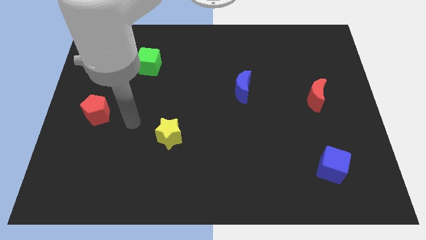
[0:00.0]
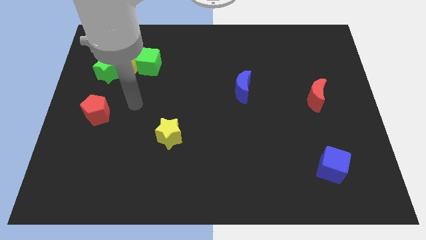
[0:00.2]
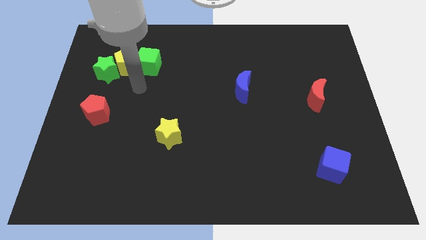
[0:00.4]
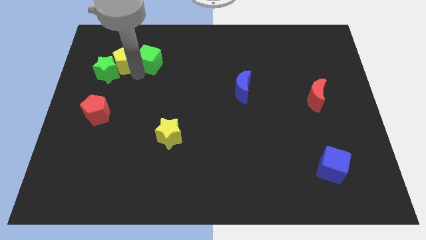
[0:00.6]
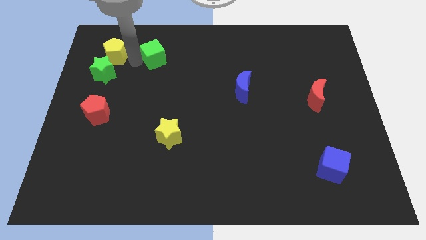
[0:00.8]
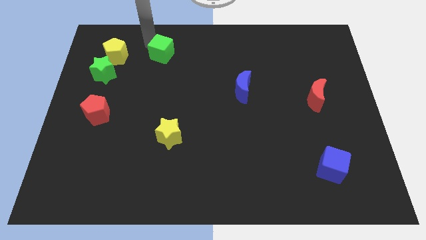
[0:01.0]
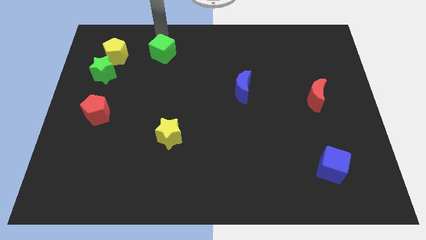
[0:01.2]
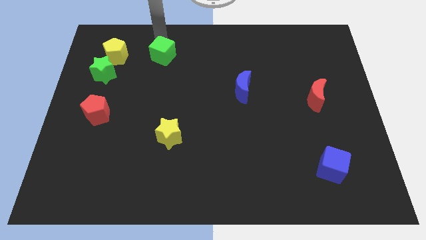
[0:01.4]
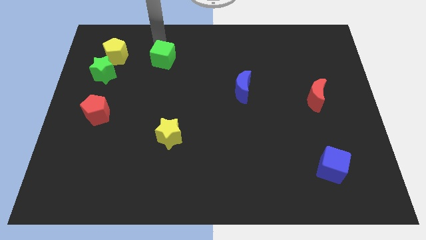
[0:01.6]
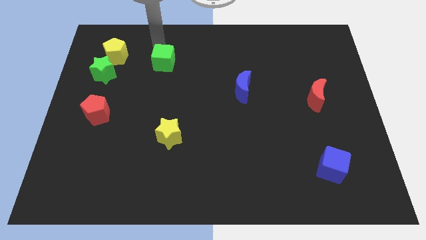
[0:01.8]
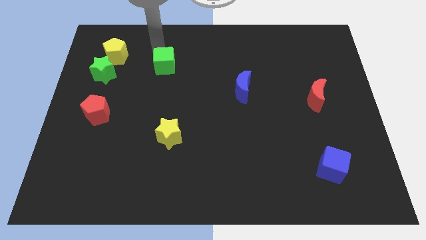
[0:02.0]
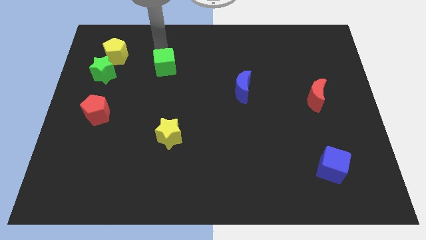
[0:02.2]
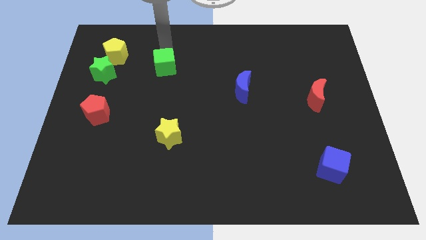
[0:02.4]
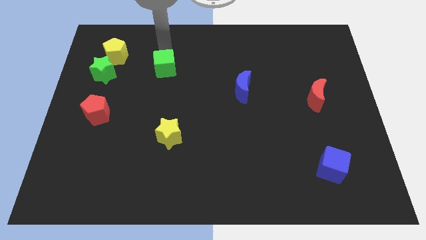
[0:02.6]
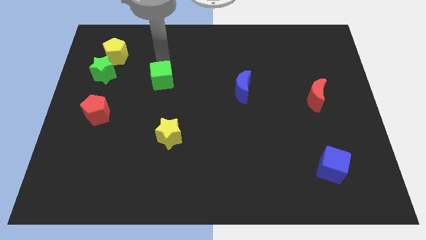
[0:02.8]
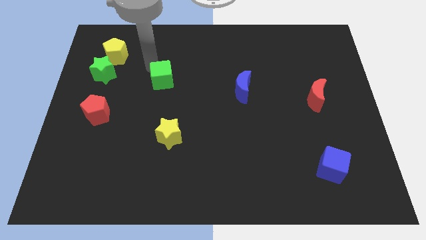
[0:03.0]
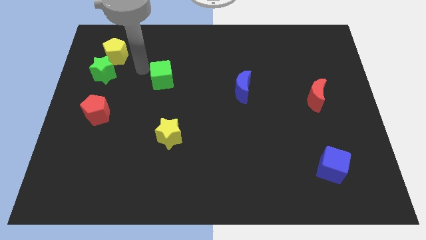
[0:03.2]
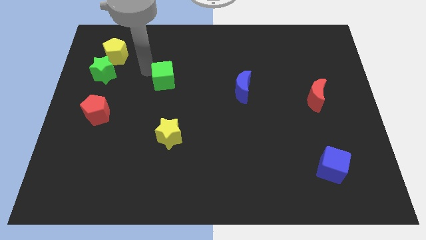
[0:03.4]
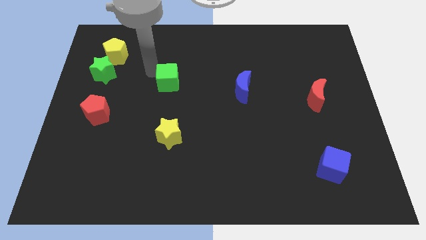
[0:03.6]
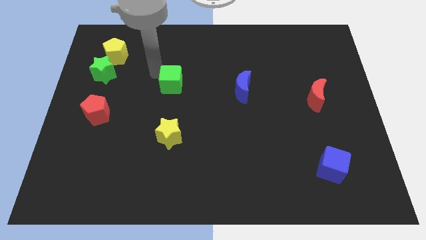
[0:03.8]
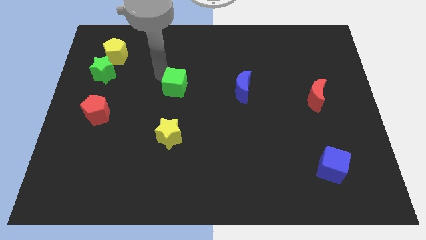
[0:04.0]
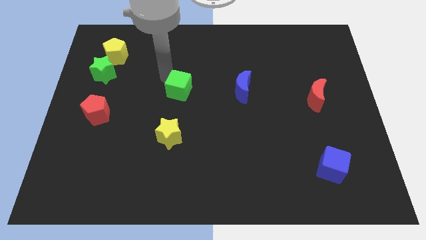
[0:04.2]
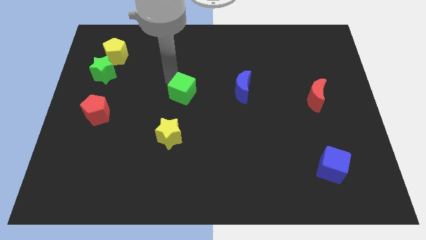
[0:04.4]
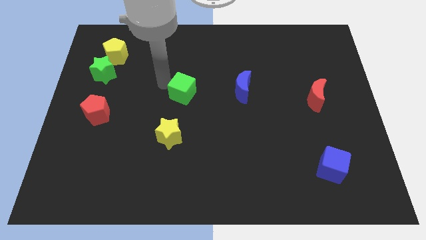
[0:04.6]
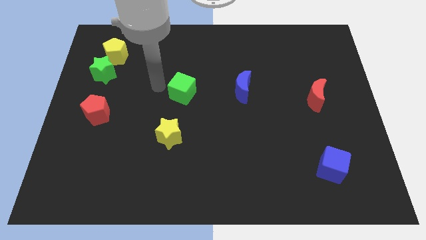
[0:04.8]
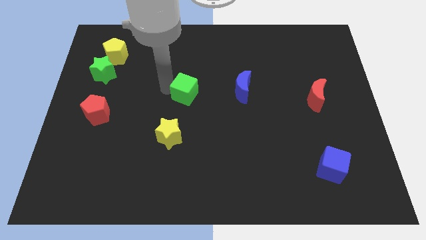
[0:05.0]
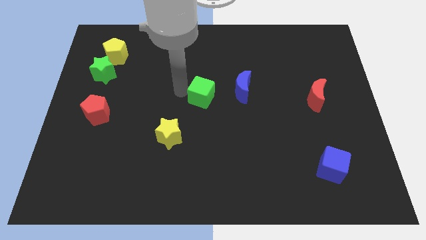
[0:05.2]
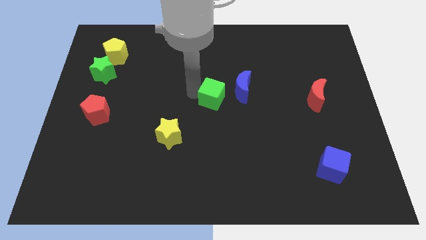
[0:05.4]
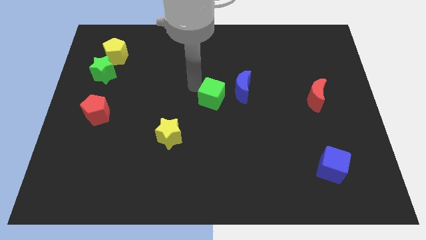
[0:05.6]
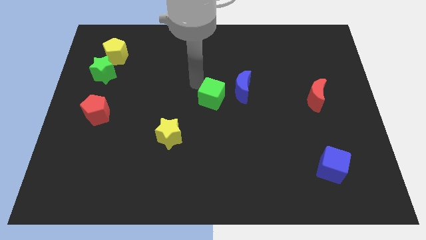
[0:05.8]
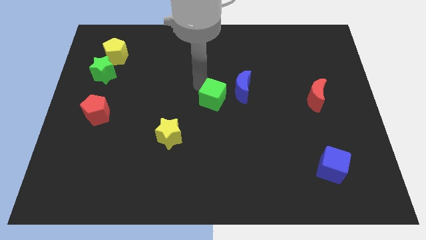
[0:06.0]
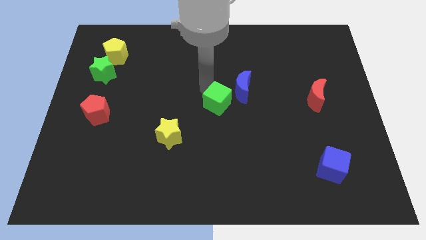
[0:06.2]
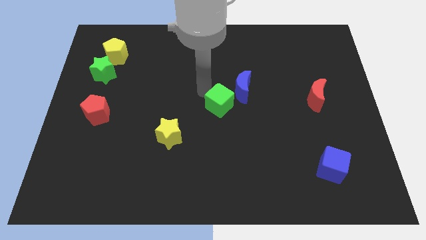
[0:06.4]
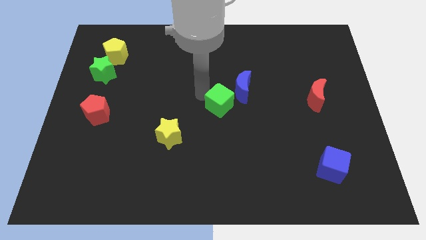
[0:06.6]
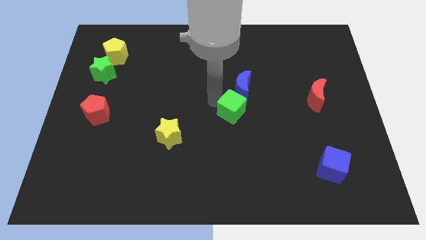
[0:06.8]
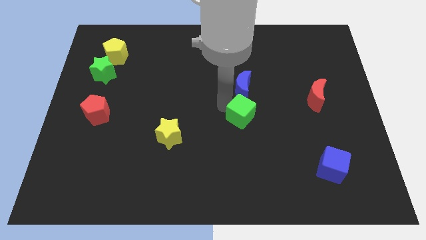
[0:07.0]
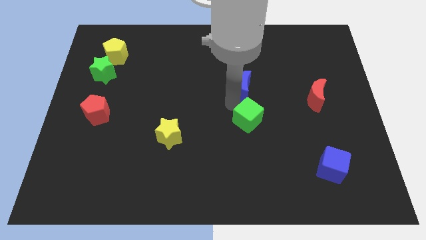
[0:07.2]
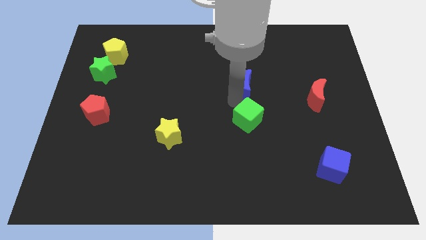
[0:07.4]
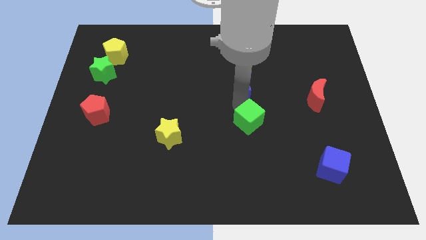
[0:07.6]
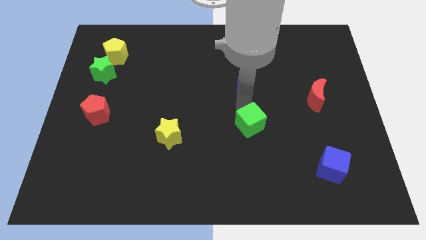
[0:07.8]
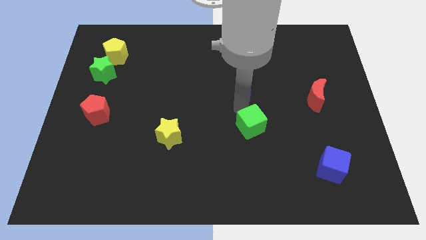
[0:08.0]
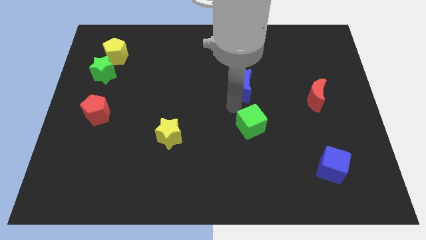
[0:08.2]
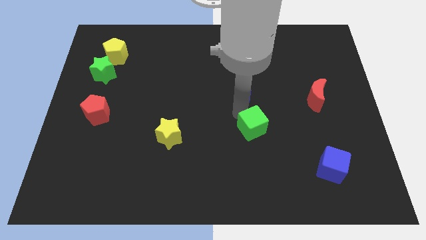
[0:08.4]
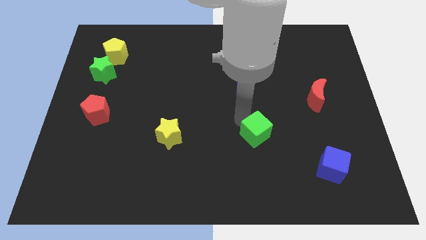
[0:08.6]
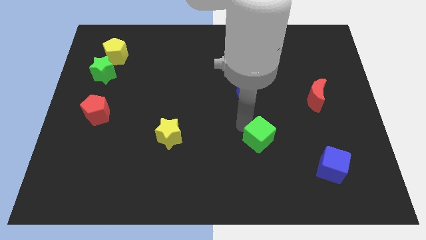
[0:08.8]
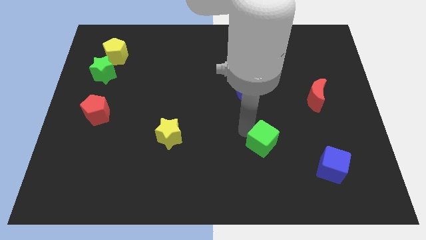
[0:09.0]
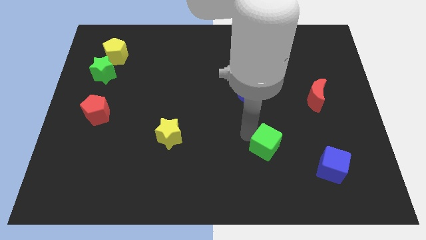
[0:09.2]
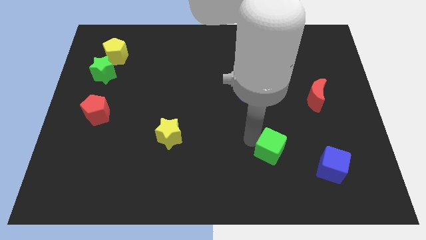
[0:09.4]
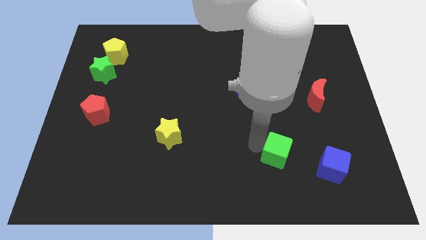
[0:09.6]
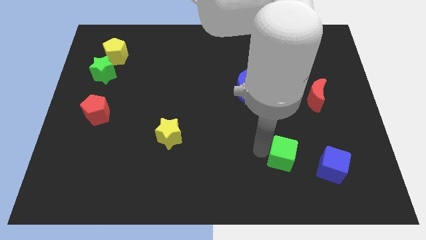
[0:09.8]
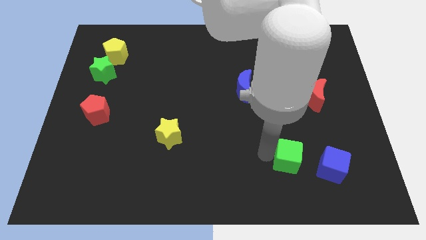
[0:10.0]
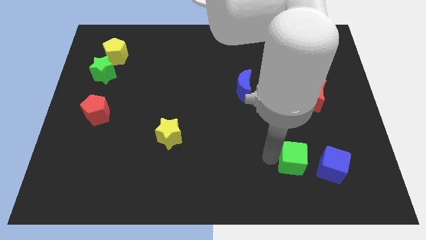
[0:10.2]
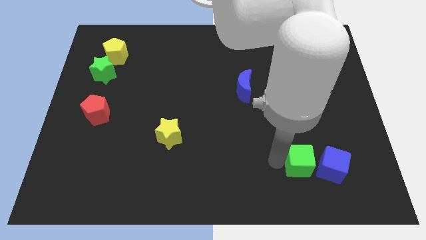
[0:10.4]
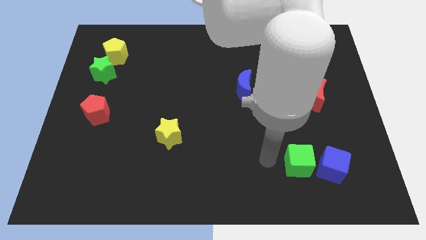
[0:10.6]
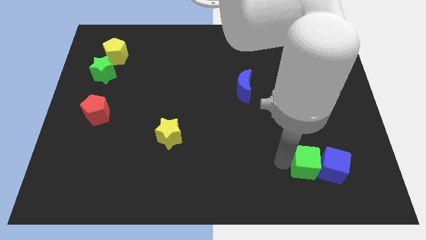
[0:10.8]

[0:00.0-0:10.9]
move the green cube towards the blue cube

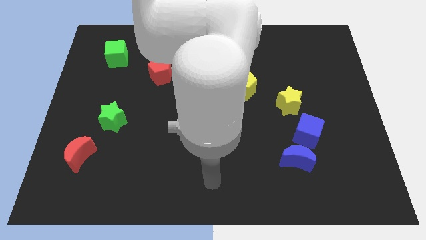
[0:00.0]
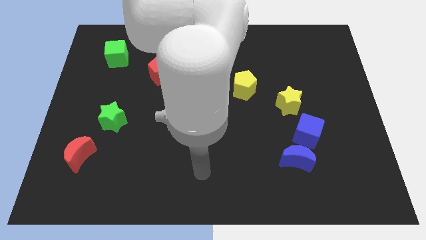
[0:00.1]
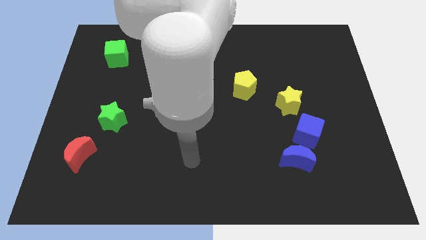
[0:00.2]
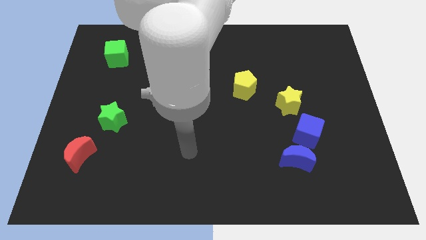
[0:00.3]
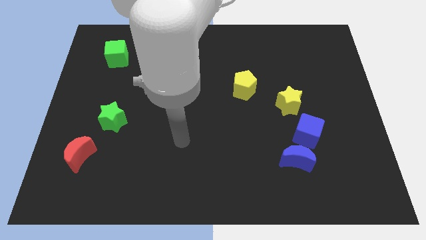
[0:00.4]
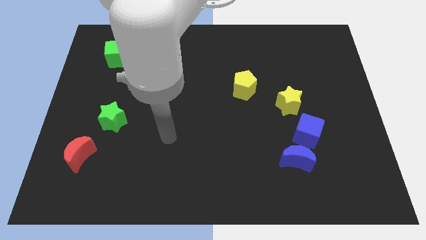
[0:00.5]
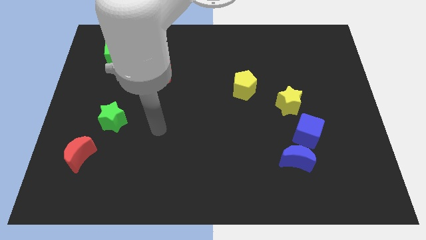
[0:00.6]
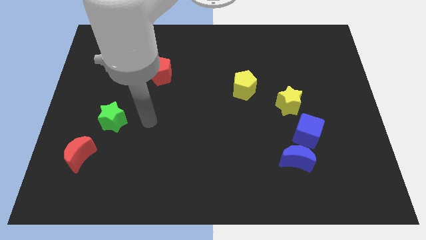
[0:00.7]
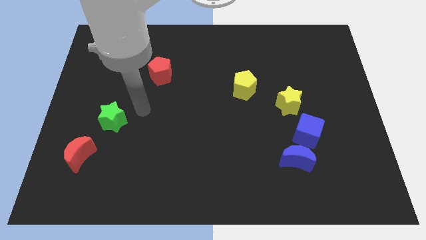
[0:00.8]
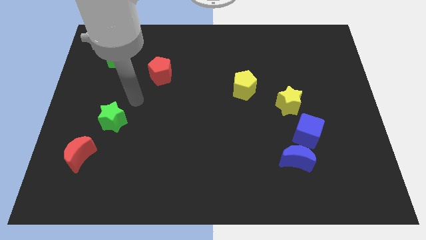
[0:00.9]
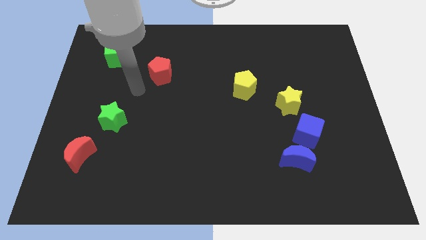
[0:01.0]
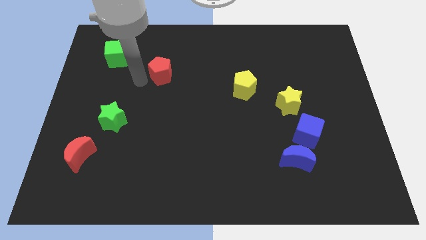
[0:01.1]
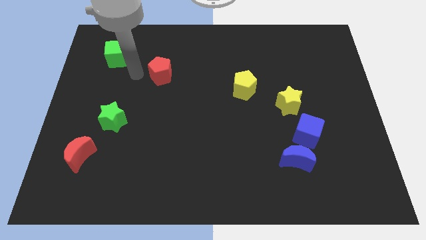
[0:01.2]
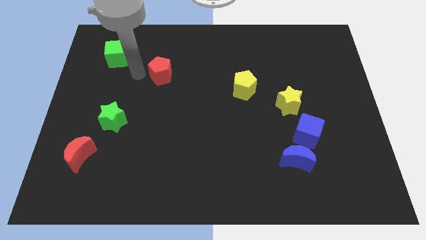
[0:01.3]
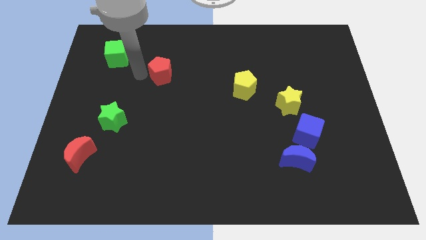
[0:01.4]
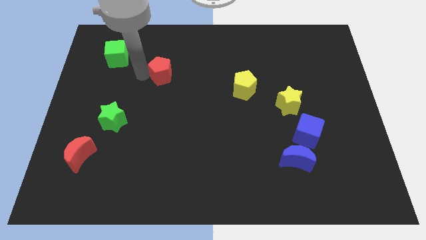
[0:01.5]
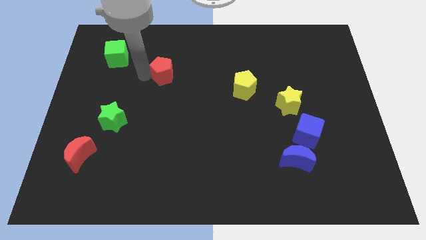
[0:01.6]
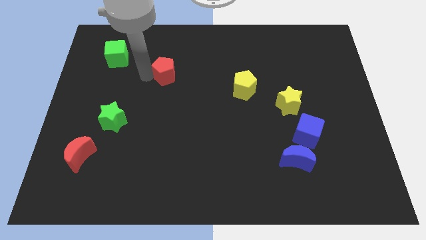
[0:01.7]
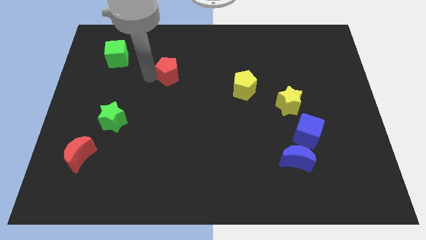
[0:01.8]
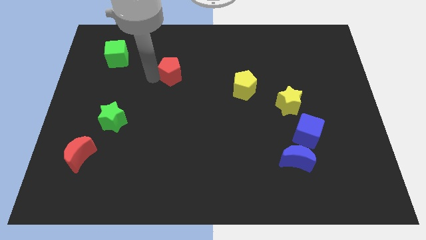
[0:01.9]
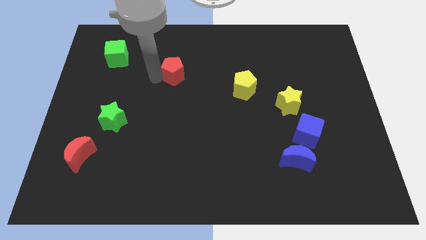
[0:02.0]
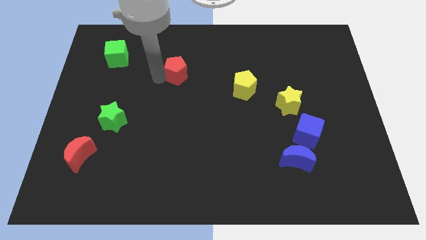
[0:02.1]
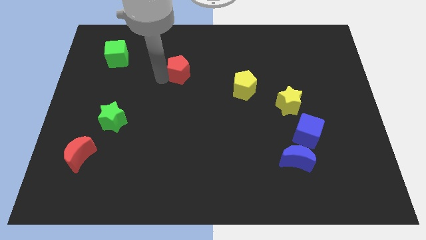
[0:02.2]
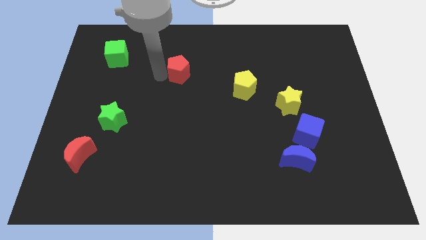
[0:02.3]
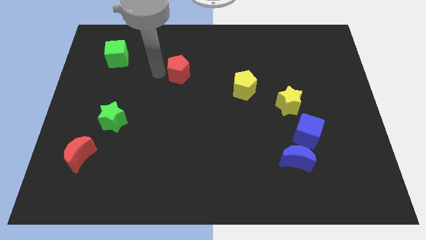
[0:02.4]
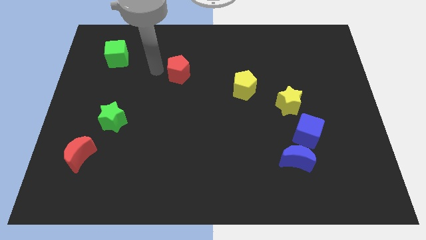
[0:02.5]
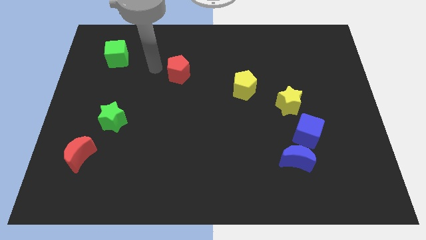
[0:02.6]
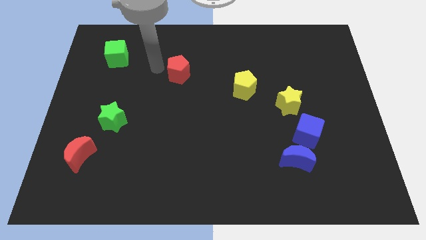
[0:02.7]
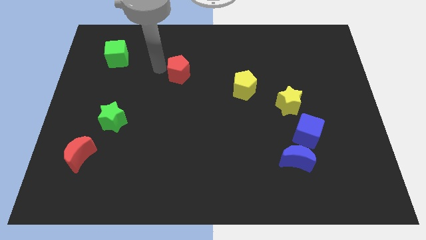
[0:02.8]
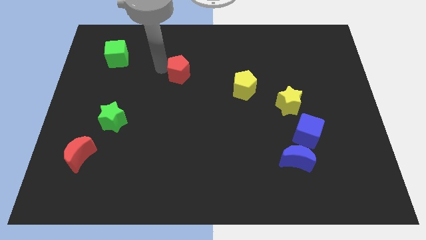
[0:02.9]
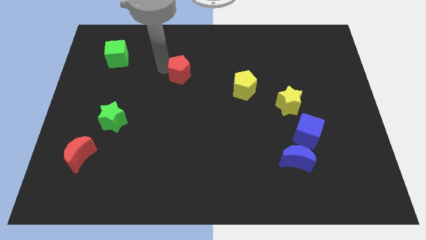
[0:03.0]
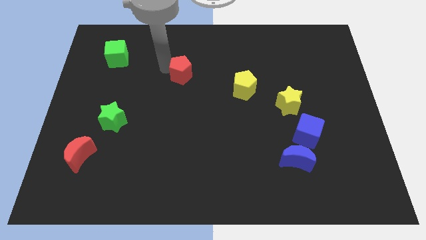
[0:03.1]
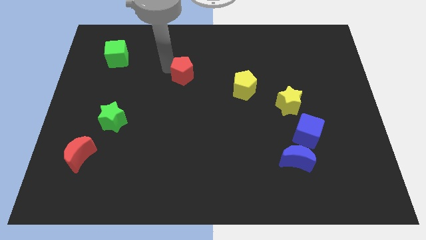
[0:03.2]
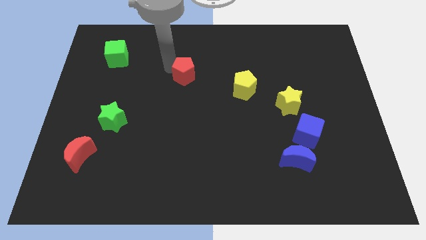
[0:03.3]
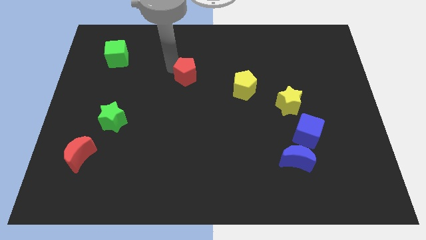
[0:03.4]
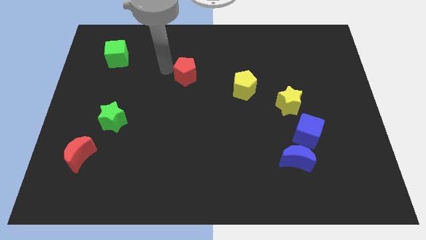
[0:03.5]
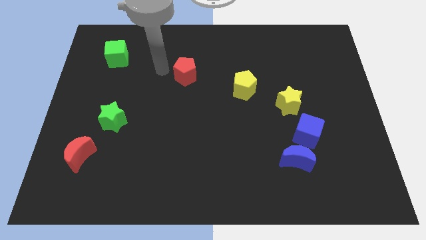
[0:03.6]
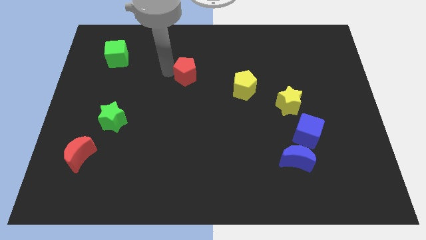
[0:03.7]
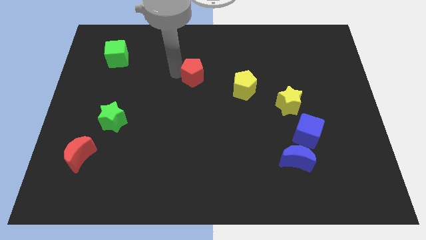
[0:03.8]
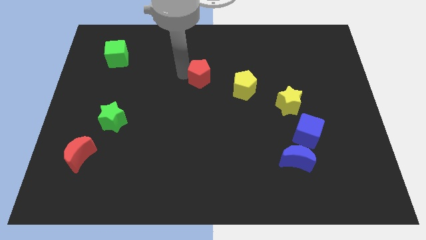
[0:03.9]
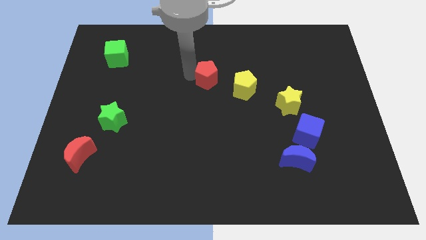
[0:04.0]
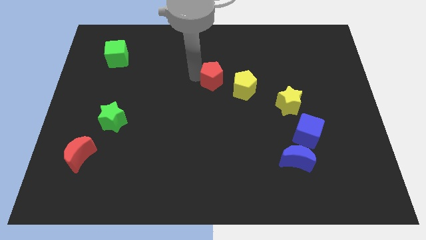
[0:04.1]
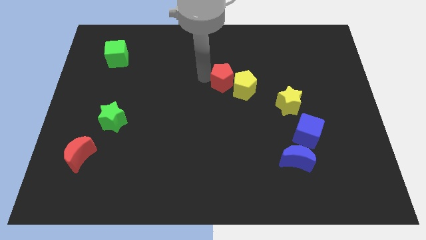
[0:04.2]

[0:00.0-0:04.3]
put the red pentagon to the yellow pentagon
